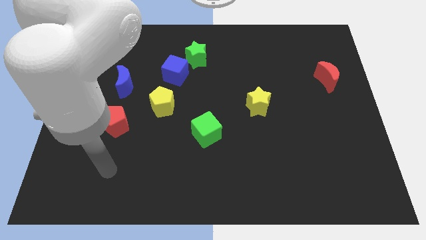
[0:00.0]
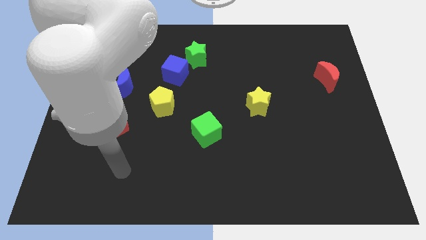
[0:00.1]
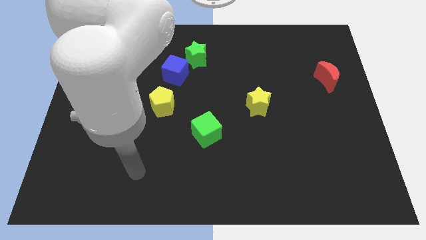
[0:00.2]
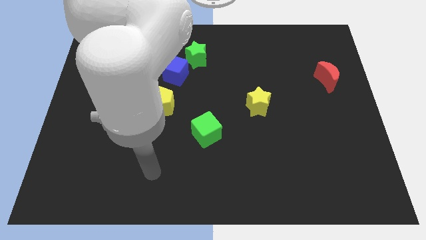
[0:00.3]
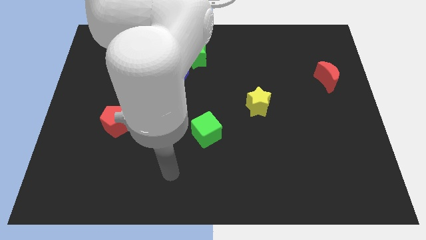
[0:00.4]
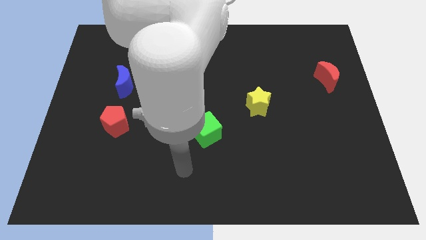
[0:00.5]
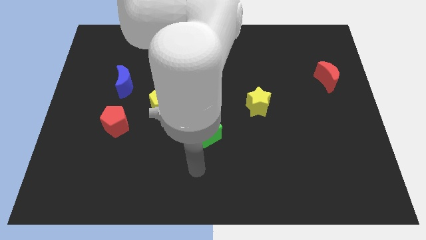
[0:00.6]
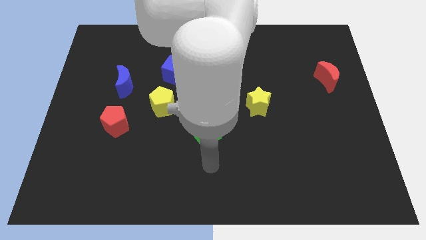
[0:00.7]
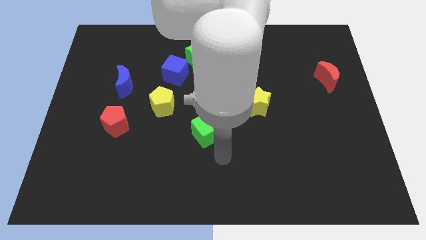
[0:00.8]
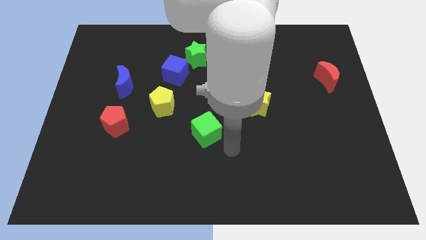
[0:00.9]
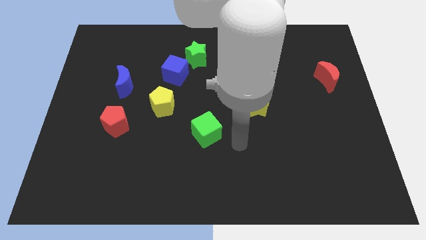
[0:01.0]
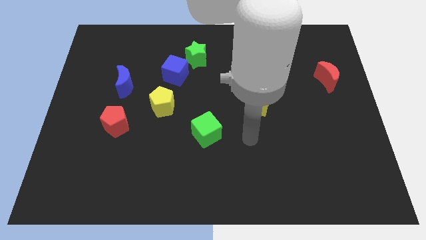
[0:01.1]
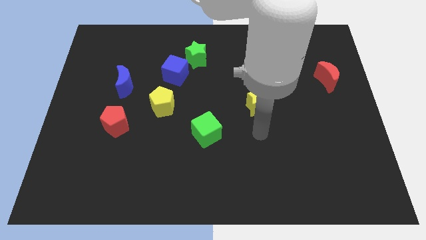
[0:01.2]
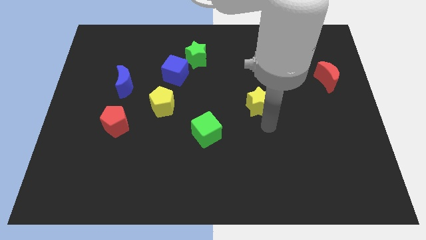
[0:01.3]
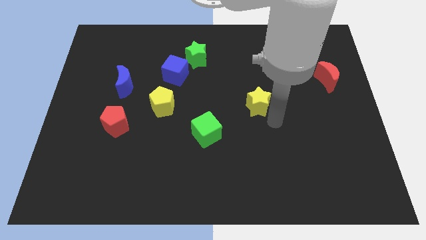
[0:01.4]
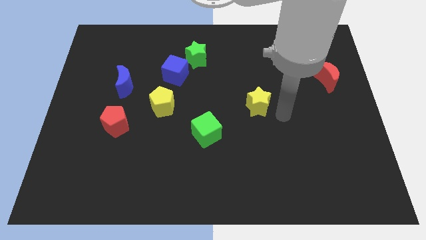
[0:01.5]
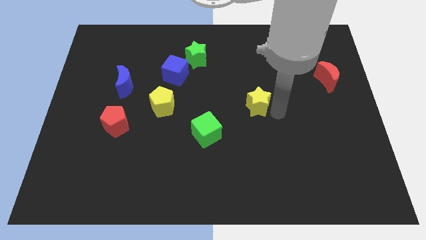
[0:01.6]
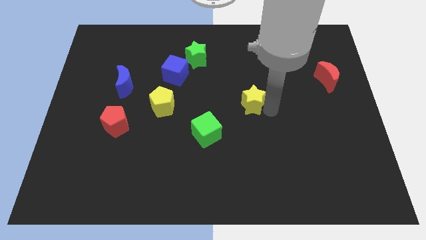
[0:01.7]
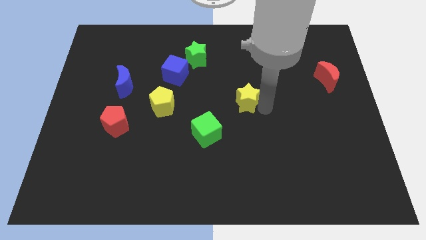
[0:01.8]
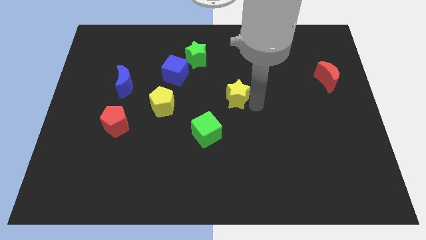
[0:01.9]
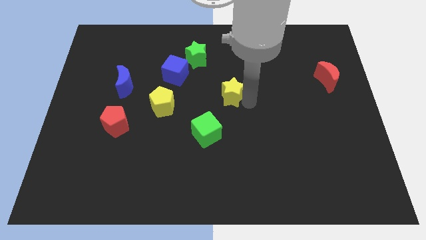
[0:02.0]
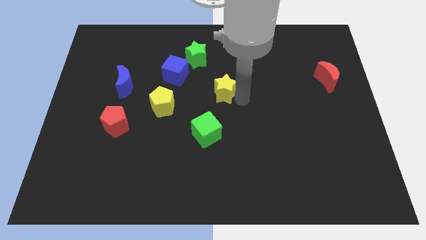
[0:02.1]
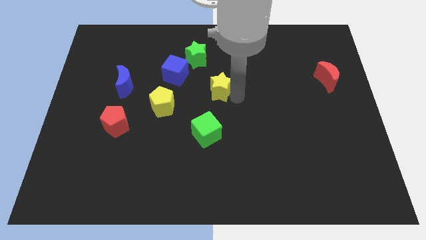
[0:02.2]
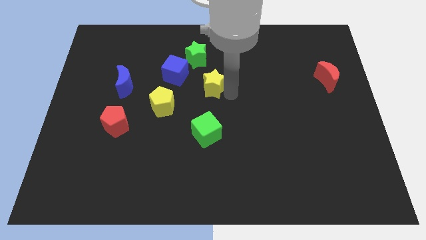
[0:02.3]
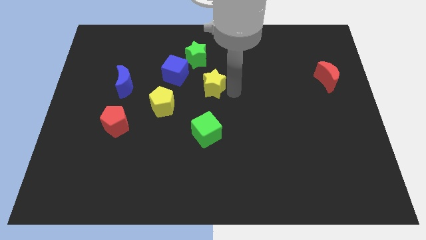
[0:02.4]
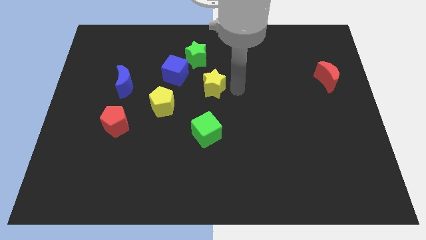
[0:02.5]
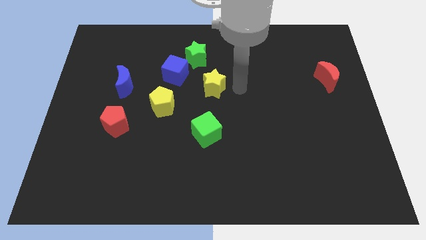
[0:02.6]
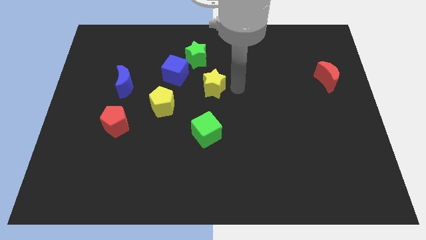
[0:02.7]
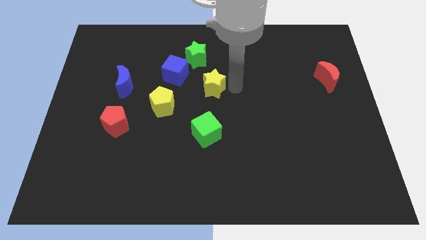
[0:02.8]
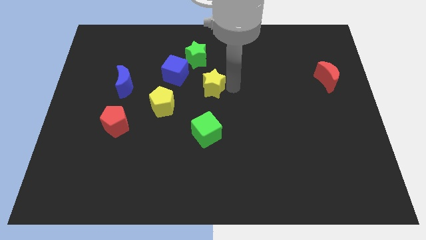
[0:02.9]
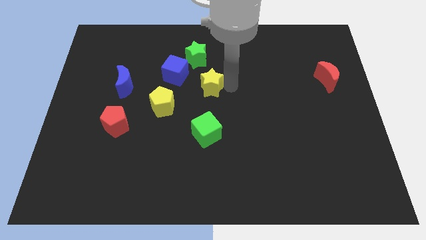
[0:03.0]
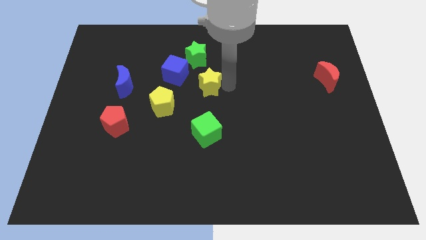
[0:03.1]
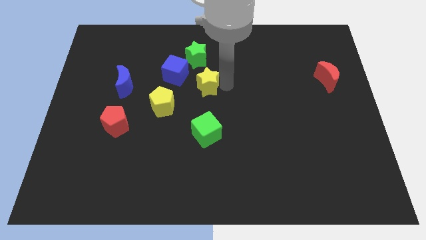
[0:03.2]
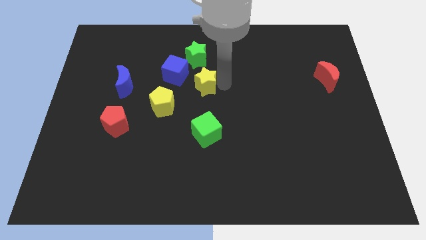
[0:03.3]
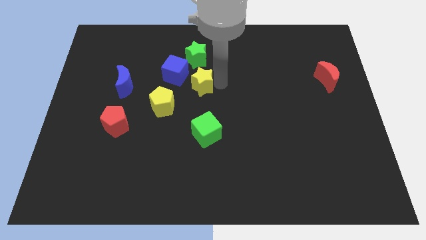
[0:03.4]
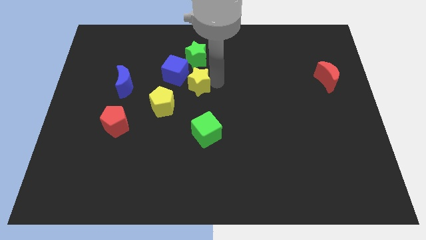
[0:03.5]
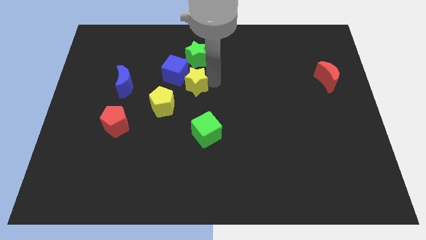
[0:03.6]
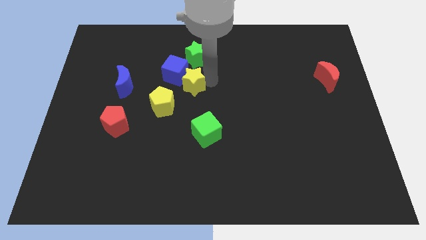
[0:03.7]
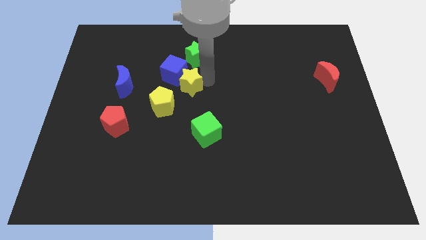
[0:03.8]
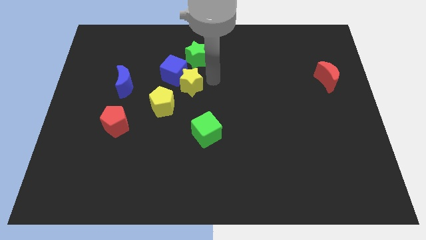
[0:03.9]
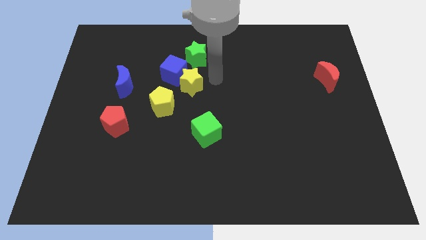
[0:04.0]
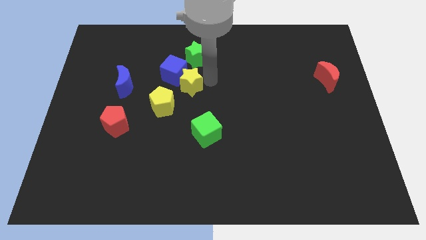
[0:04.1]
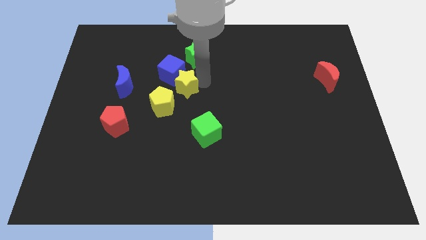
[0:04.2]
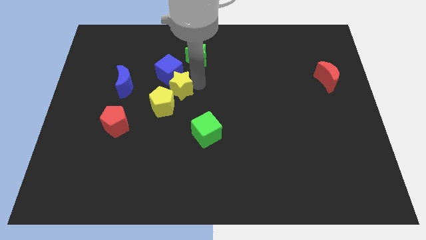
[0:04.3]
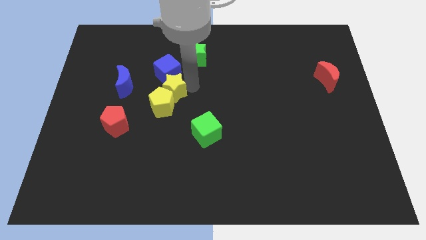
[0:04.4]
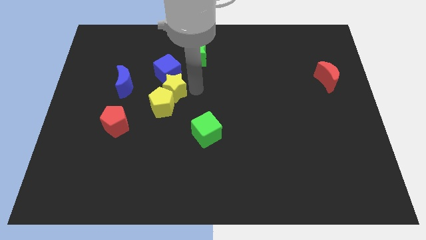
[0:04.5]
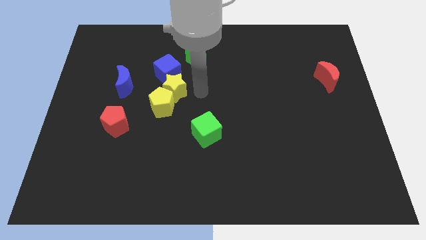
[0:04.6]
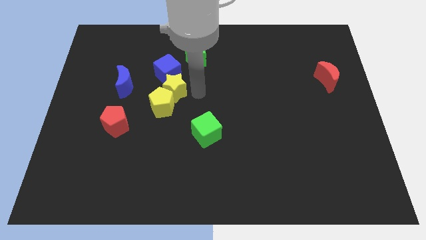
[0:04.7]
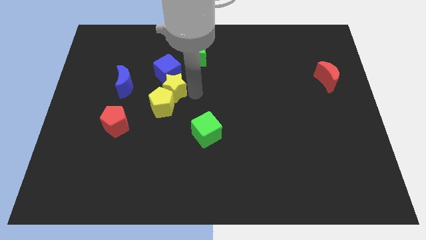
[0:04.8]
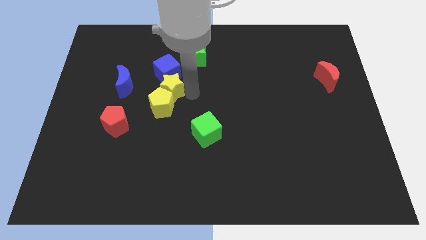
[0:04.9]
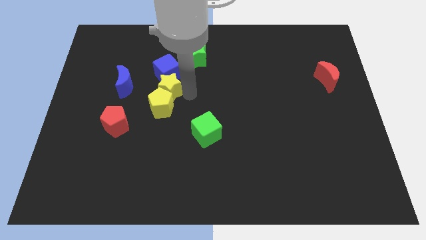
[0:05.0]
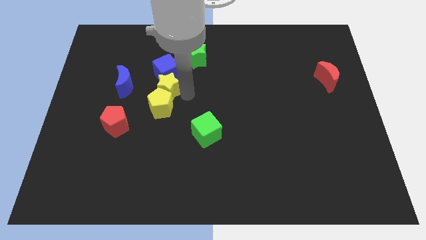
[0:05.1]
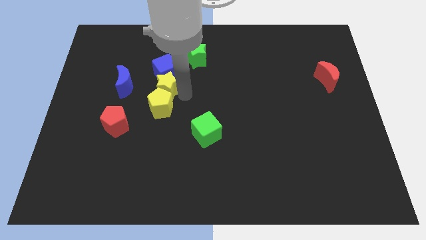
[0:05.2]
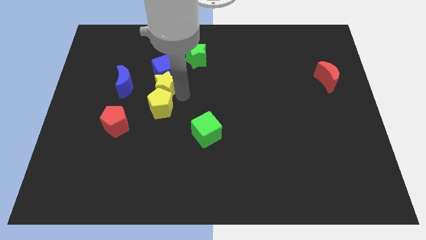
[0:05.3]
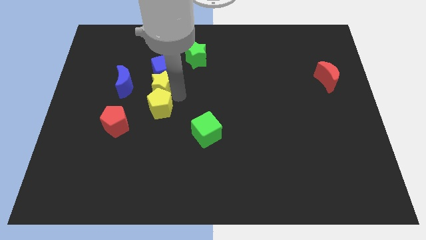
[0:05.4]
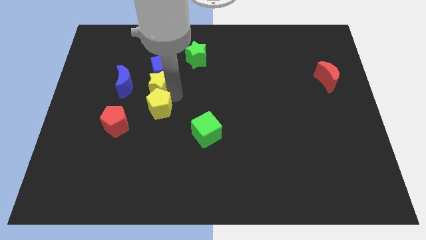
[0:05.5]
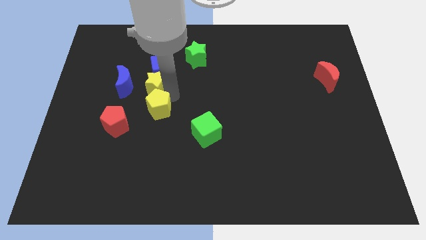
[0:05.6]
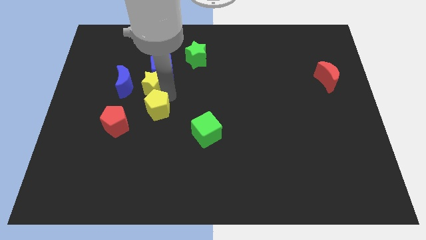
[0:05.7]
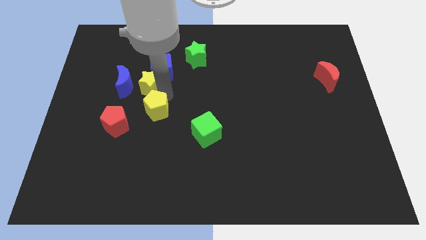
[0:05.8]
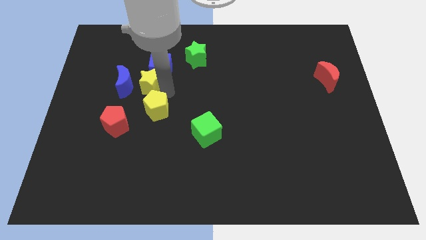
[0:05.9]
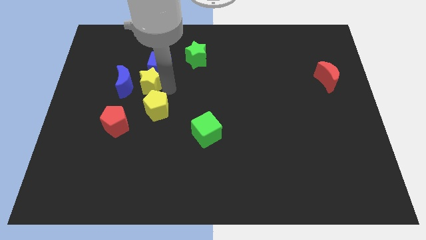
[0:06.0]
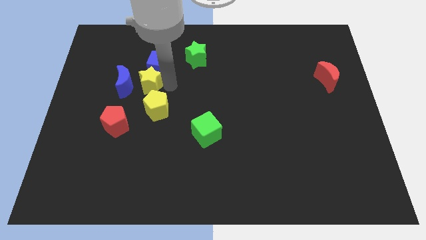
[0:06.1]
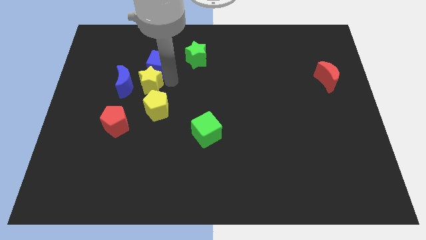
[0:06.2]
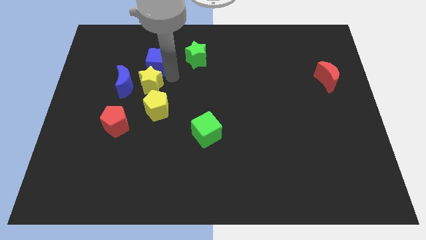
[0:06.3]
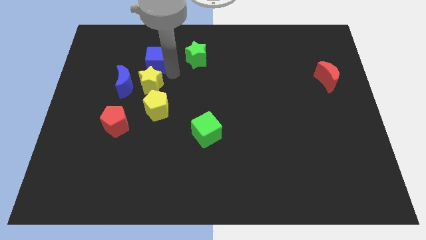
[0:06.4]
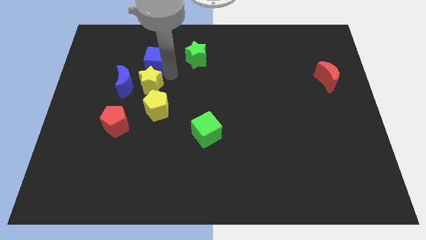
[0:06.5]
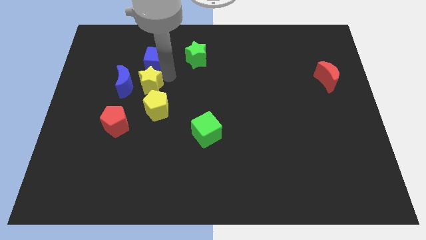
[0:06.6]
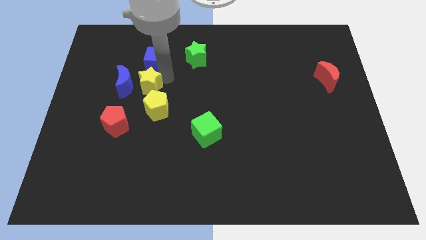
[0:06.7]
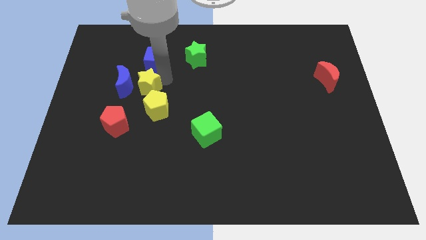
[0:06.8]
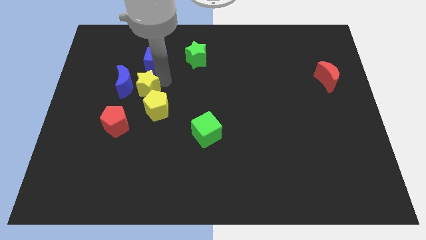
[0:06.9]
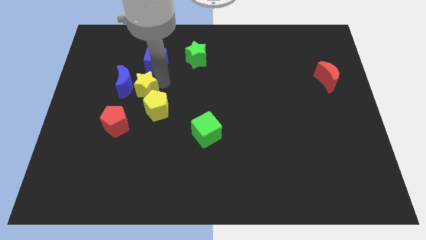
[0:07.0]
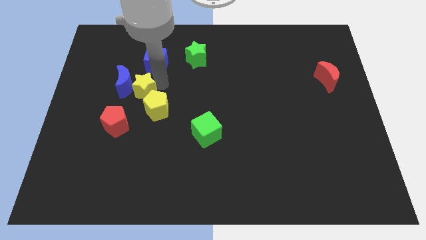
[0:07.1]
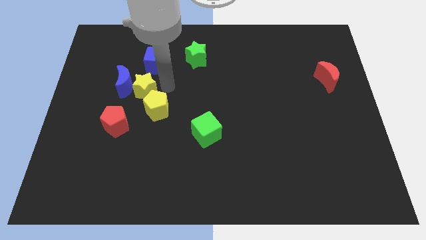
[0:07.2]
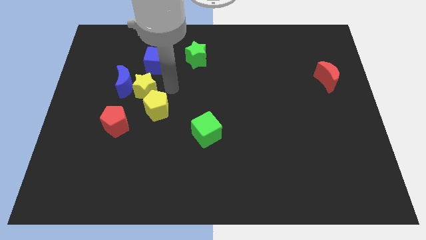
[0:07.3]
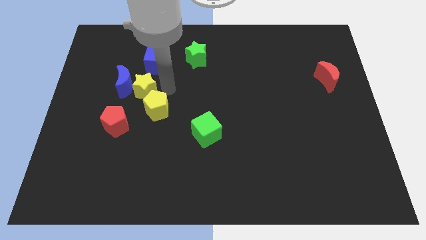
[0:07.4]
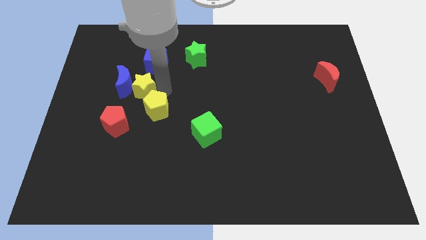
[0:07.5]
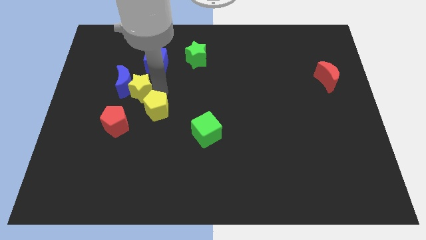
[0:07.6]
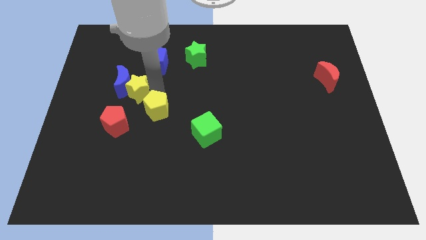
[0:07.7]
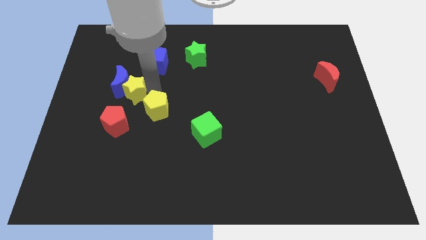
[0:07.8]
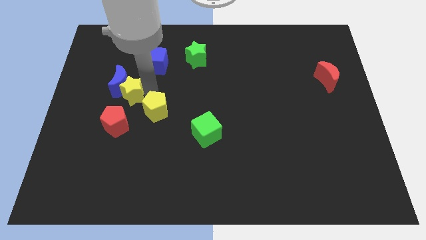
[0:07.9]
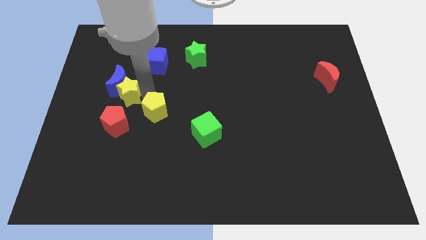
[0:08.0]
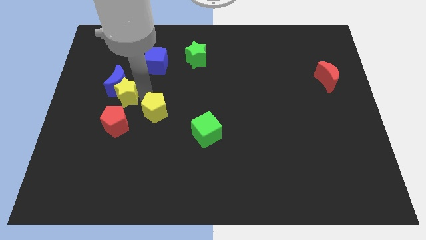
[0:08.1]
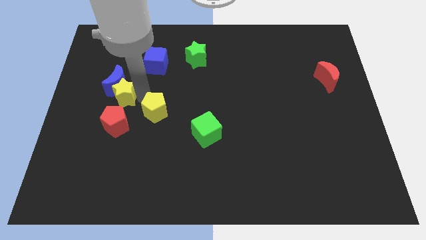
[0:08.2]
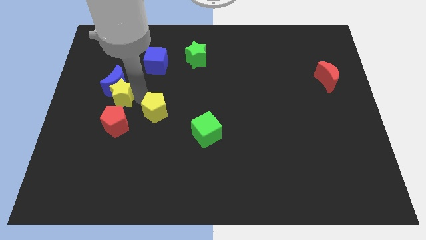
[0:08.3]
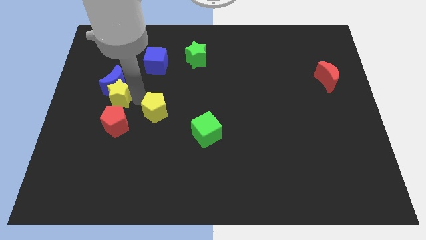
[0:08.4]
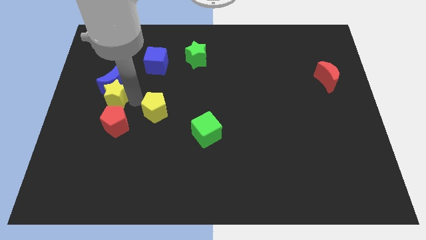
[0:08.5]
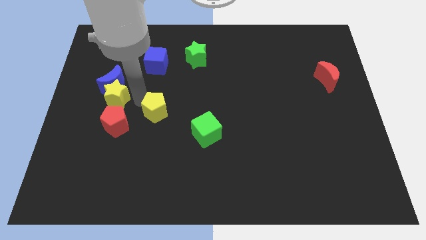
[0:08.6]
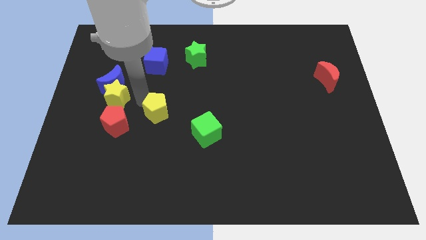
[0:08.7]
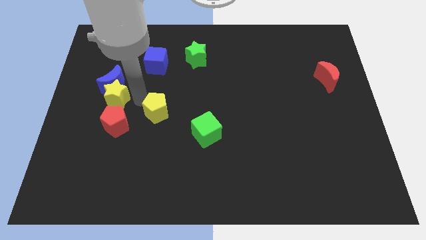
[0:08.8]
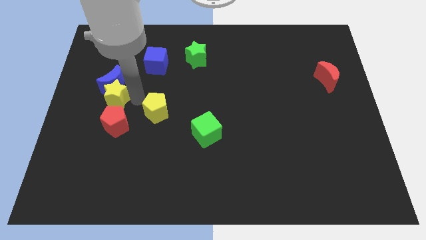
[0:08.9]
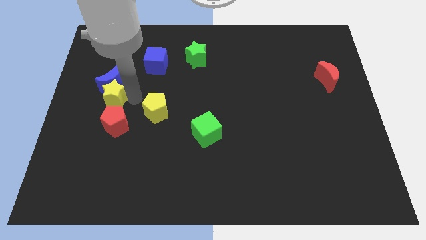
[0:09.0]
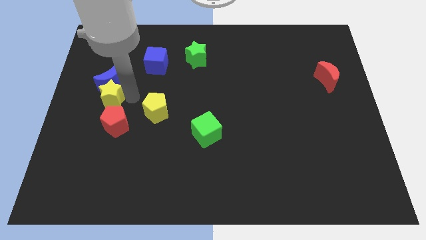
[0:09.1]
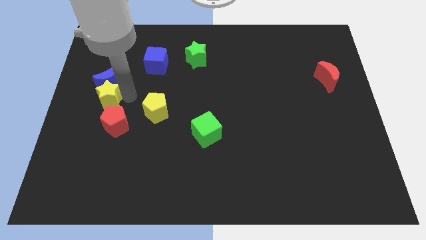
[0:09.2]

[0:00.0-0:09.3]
put the yellow star to the left side of the board
